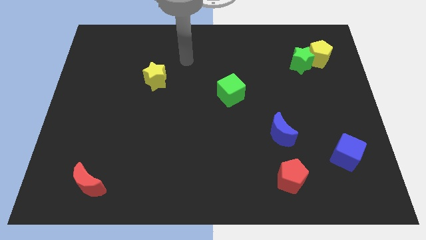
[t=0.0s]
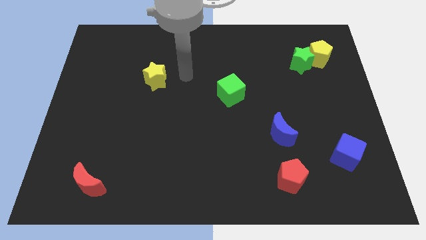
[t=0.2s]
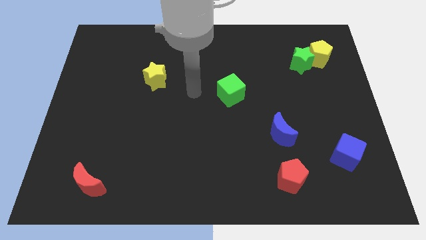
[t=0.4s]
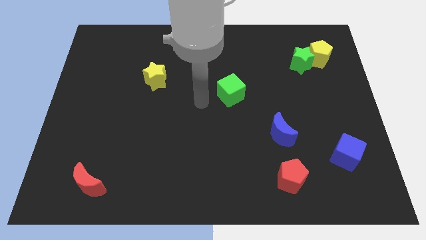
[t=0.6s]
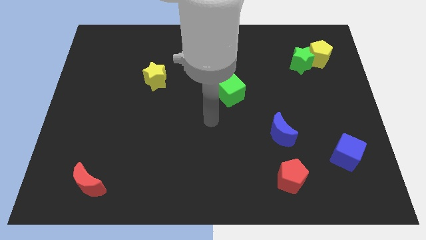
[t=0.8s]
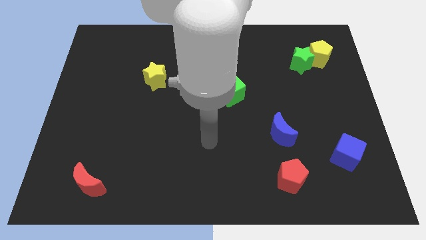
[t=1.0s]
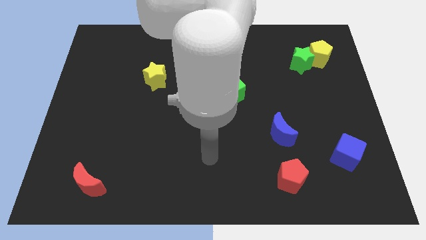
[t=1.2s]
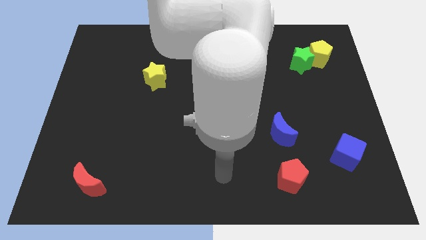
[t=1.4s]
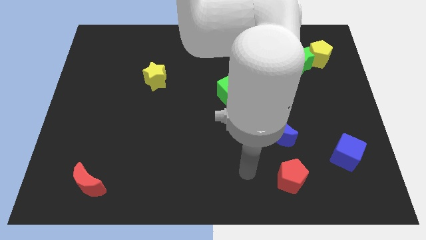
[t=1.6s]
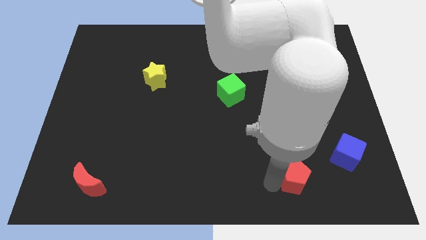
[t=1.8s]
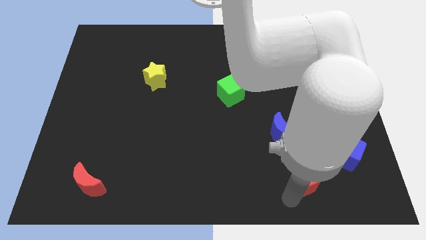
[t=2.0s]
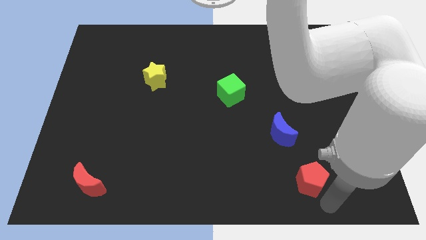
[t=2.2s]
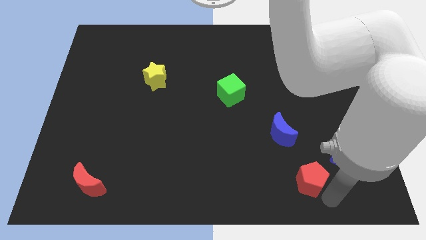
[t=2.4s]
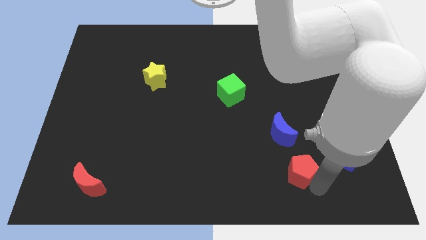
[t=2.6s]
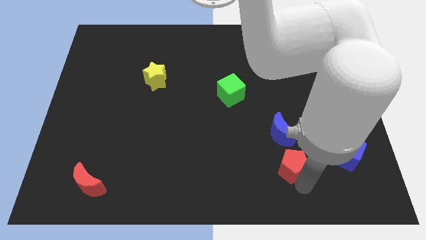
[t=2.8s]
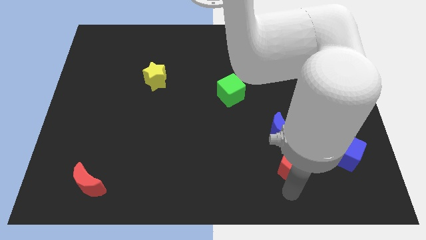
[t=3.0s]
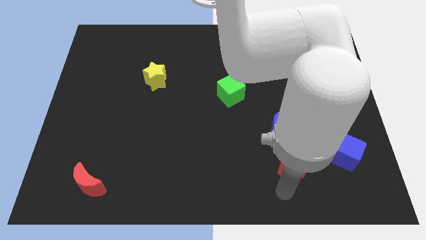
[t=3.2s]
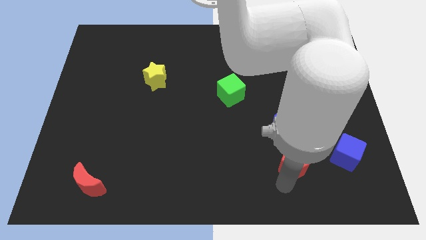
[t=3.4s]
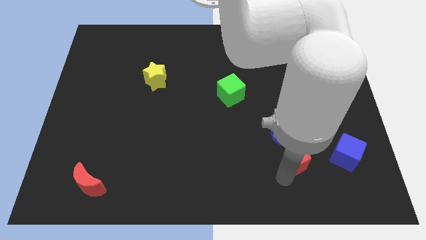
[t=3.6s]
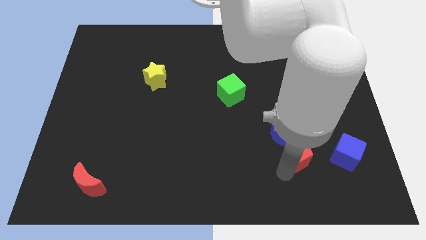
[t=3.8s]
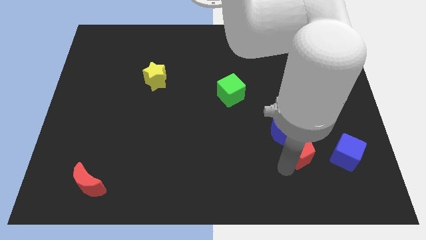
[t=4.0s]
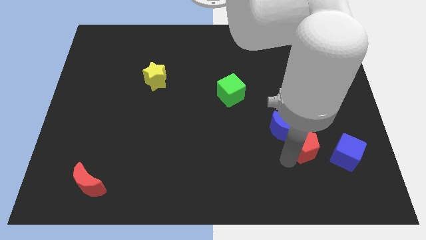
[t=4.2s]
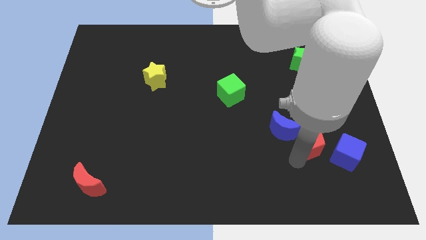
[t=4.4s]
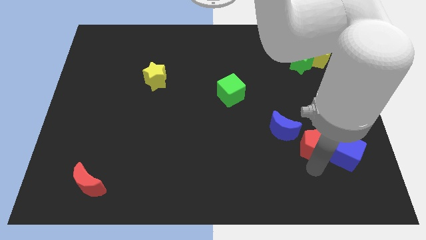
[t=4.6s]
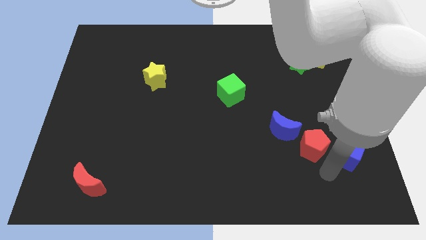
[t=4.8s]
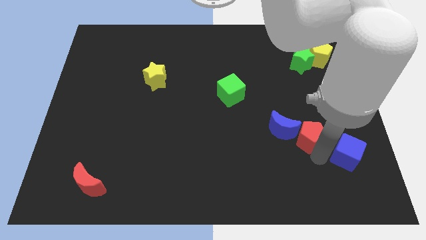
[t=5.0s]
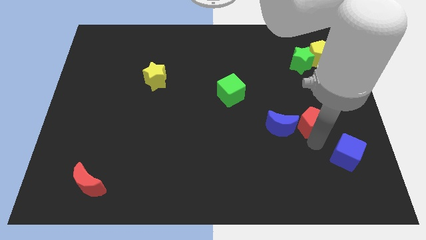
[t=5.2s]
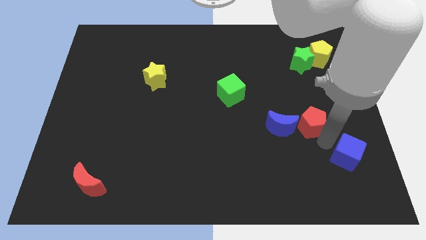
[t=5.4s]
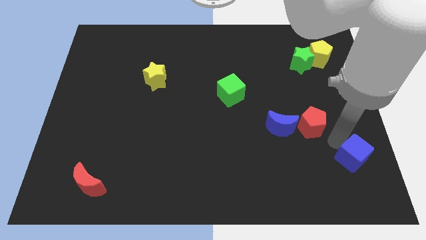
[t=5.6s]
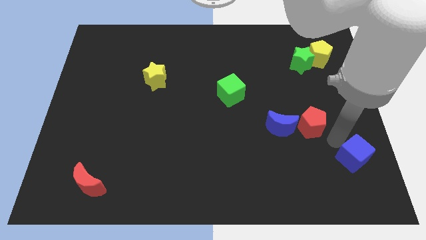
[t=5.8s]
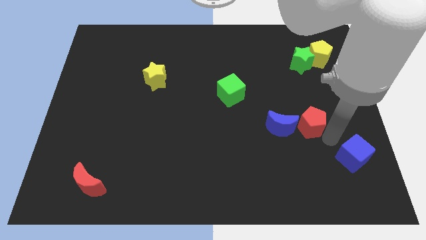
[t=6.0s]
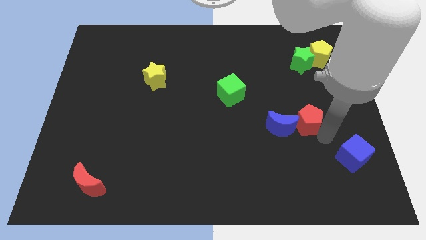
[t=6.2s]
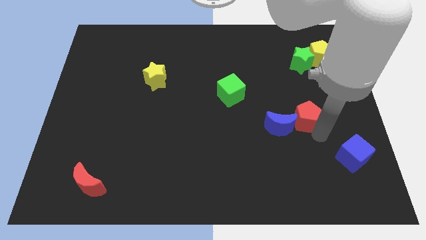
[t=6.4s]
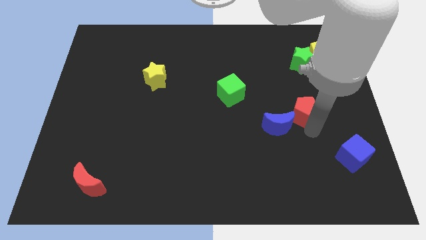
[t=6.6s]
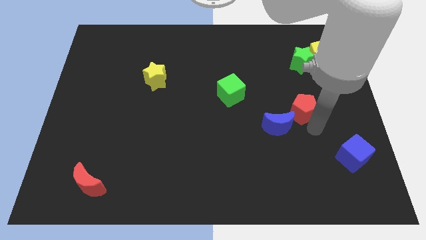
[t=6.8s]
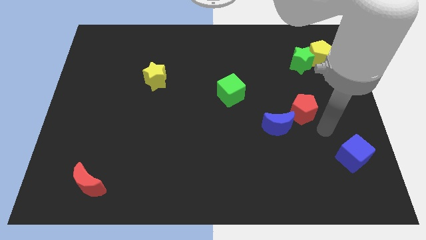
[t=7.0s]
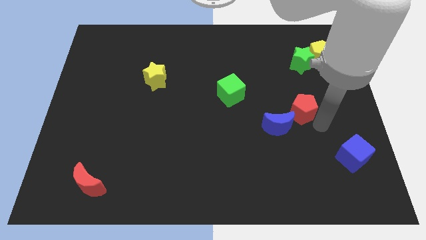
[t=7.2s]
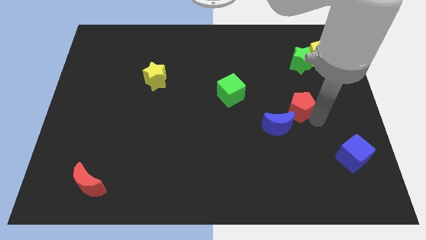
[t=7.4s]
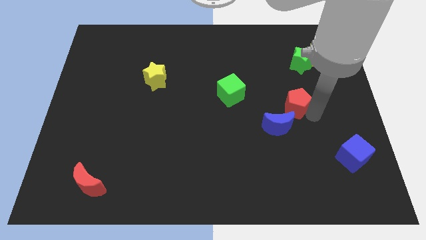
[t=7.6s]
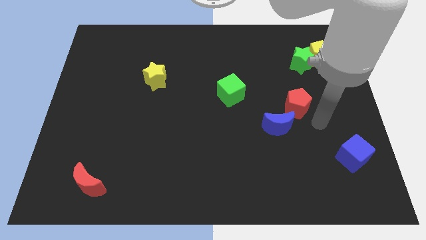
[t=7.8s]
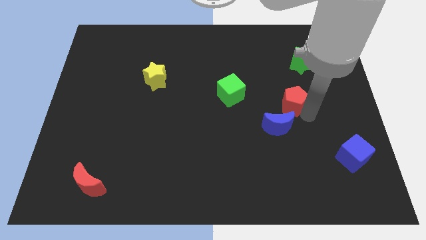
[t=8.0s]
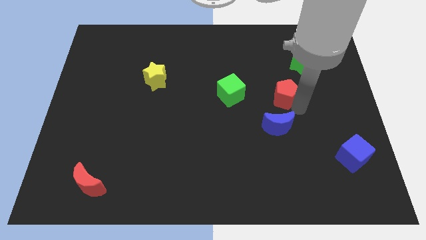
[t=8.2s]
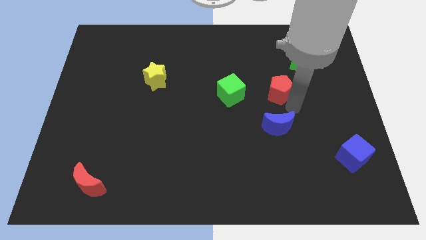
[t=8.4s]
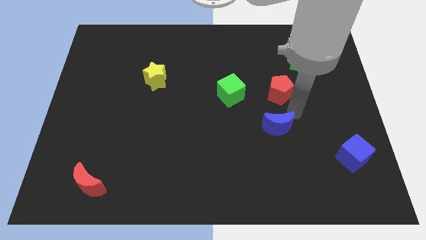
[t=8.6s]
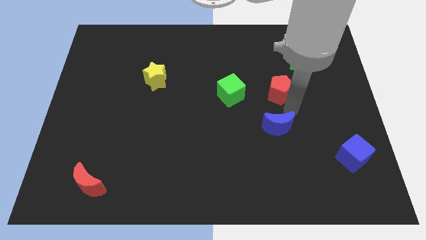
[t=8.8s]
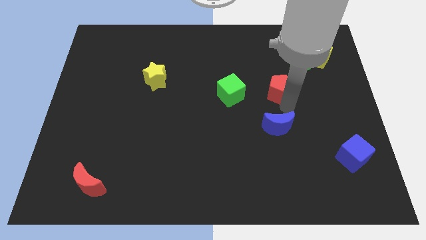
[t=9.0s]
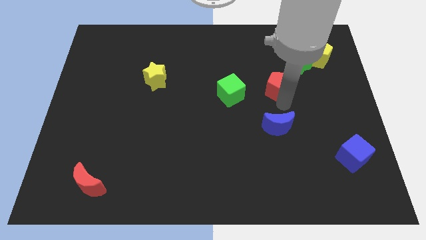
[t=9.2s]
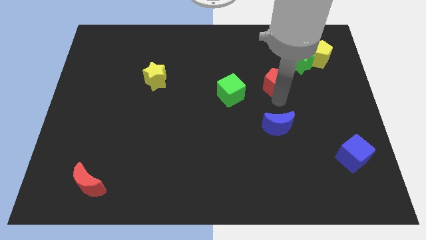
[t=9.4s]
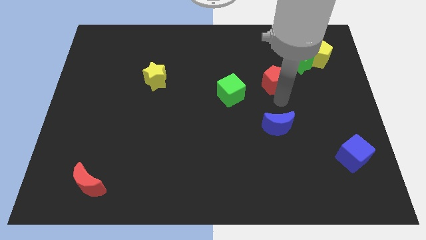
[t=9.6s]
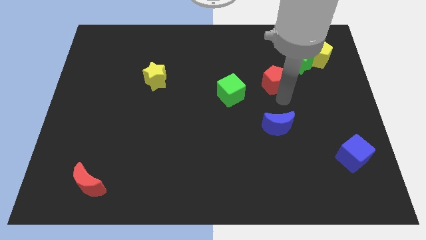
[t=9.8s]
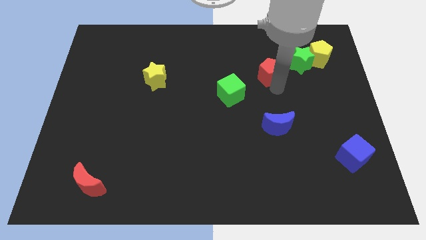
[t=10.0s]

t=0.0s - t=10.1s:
move the red pentagon just left of the green star

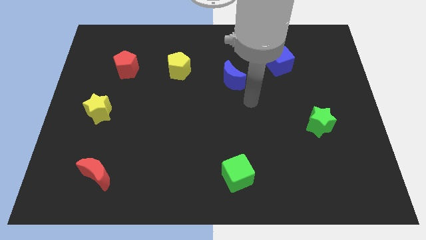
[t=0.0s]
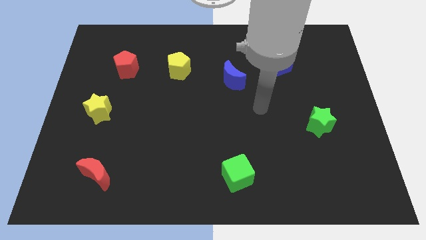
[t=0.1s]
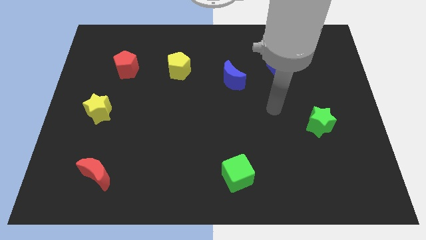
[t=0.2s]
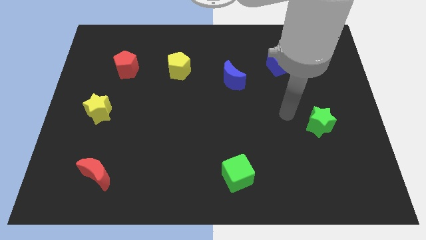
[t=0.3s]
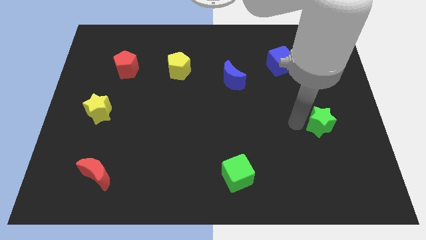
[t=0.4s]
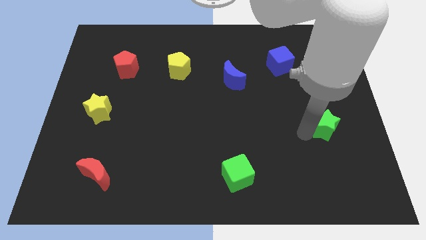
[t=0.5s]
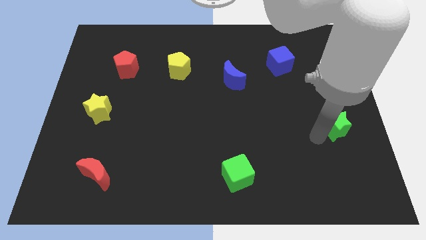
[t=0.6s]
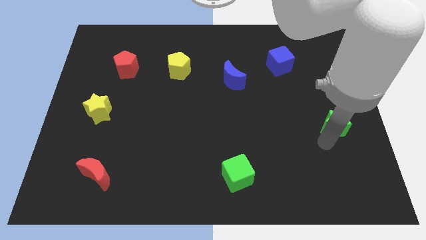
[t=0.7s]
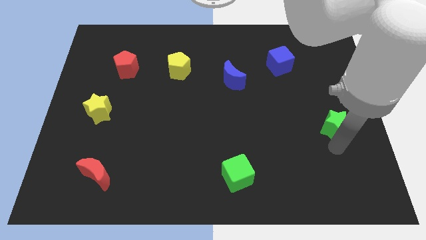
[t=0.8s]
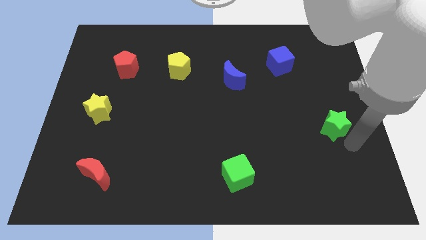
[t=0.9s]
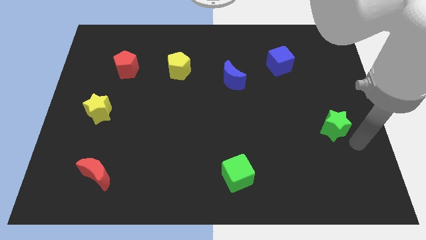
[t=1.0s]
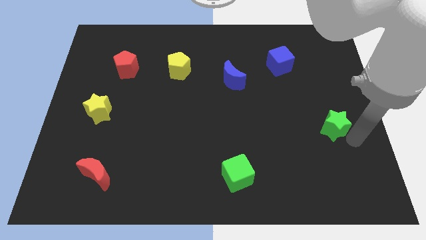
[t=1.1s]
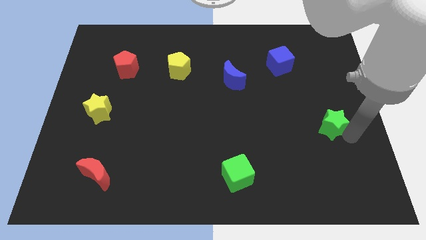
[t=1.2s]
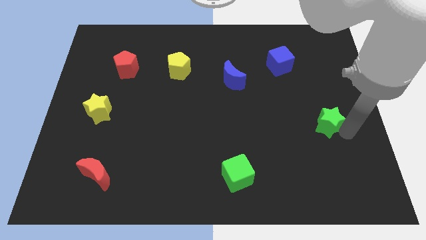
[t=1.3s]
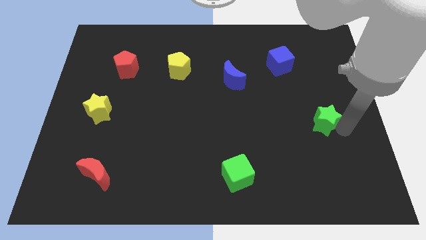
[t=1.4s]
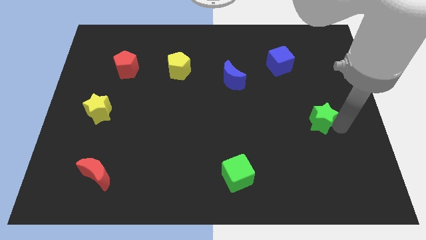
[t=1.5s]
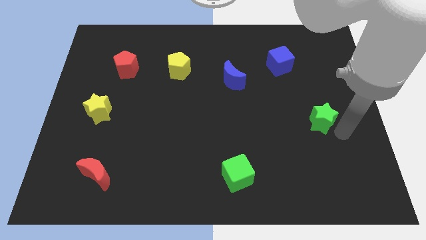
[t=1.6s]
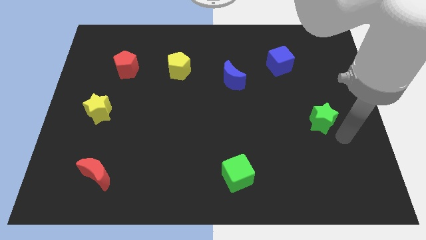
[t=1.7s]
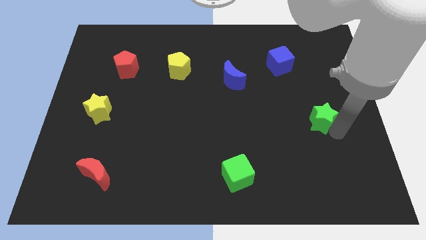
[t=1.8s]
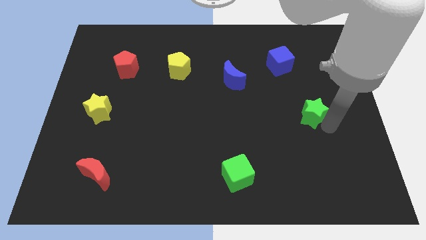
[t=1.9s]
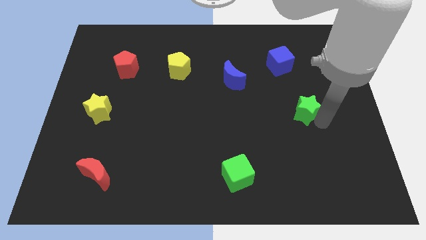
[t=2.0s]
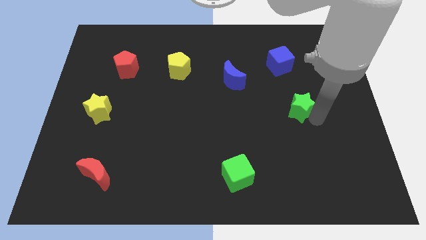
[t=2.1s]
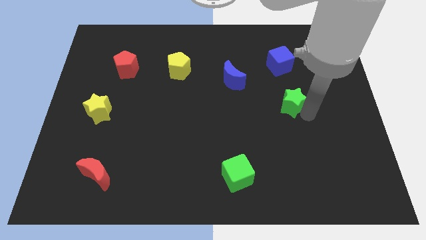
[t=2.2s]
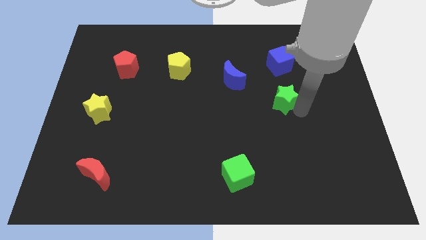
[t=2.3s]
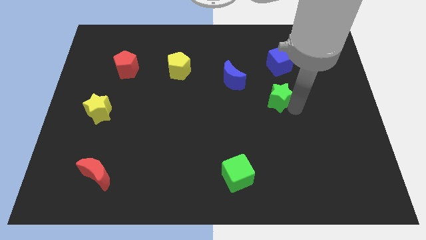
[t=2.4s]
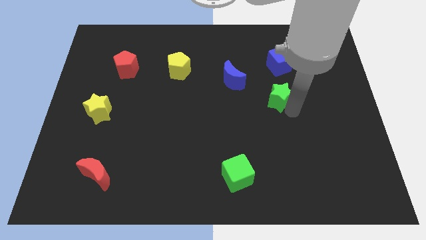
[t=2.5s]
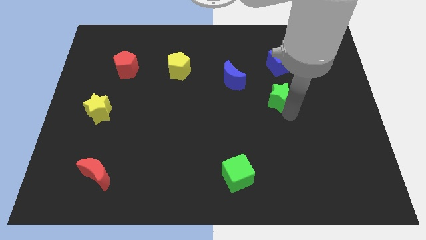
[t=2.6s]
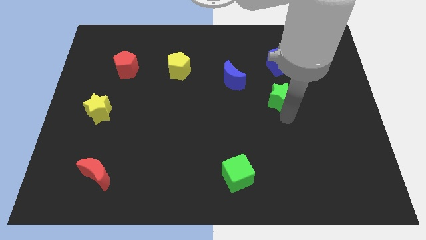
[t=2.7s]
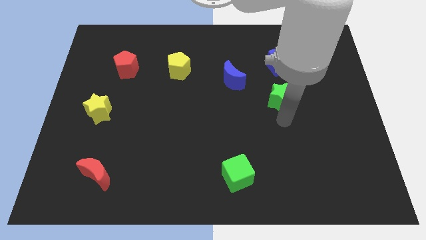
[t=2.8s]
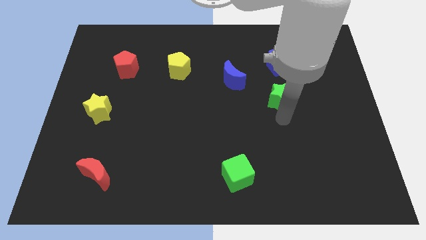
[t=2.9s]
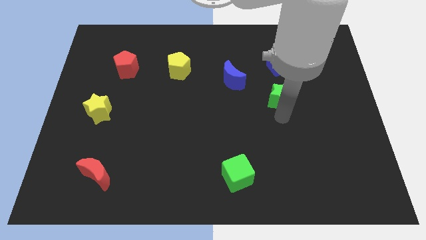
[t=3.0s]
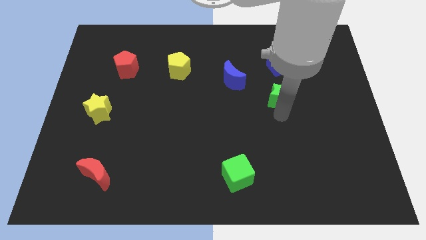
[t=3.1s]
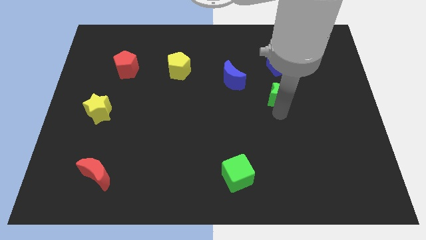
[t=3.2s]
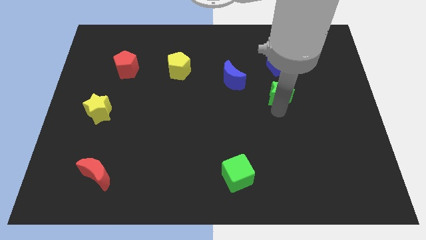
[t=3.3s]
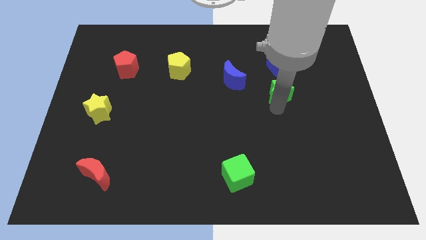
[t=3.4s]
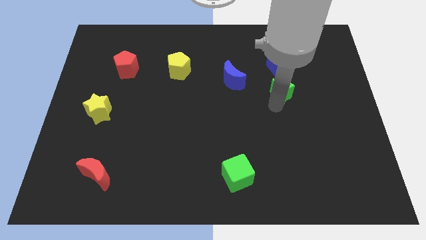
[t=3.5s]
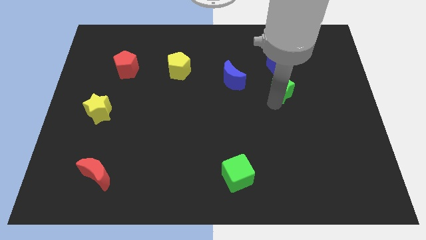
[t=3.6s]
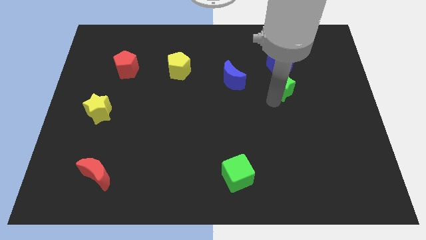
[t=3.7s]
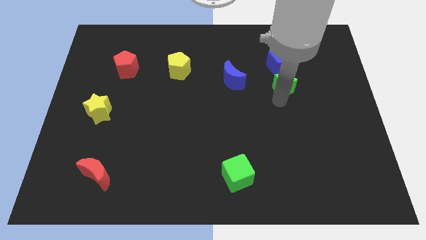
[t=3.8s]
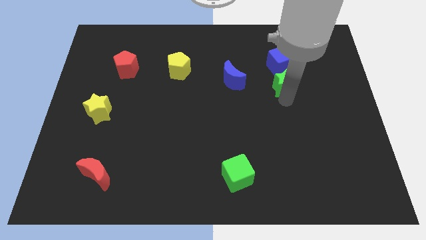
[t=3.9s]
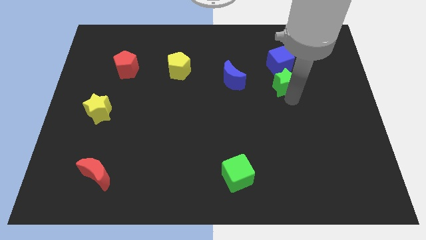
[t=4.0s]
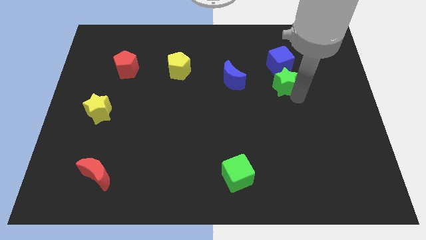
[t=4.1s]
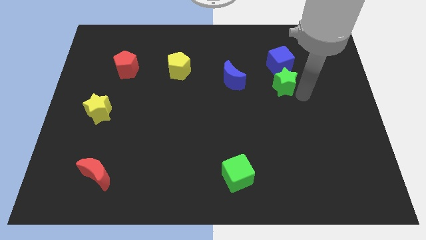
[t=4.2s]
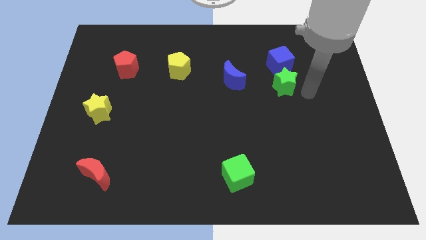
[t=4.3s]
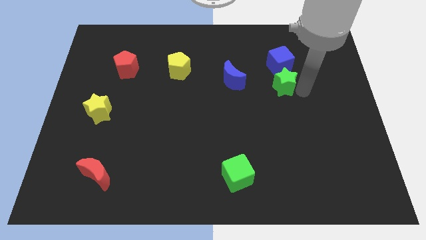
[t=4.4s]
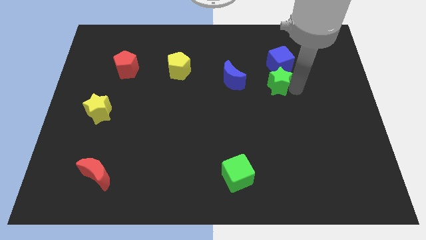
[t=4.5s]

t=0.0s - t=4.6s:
slide the green star diagonally down and to the left of the blue cube
